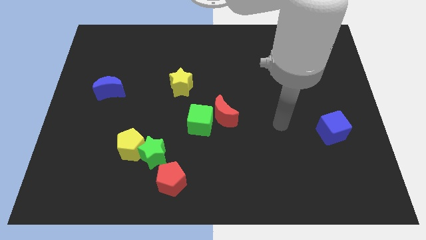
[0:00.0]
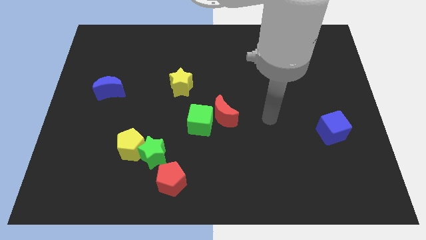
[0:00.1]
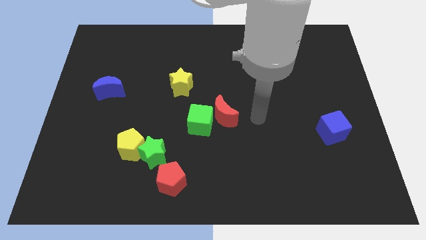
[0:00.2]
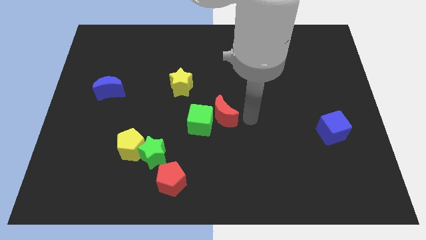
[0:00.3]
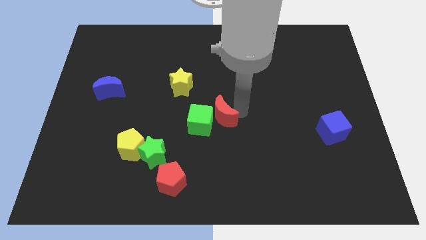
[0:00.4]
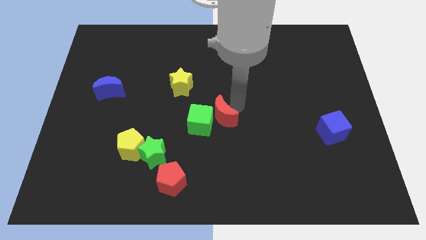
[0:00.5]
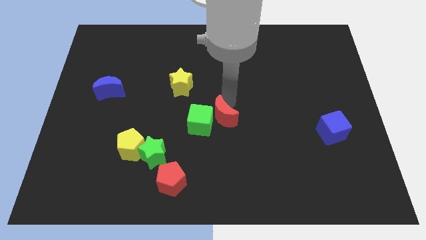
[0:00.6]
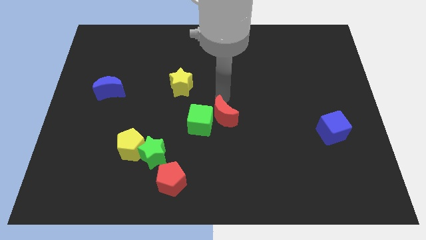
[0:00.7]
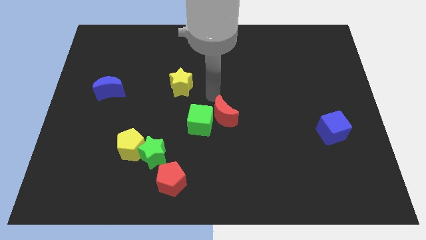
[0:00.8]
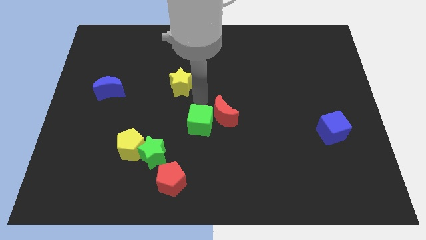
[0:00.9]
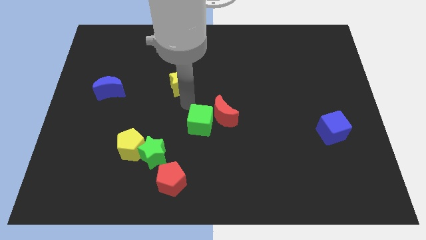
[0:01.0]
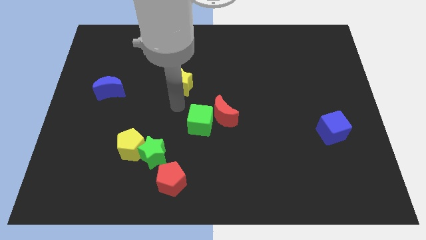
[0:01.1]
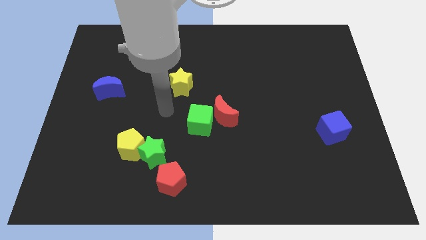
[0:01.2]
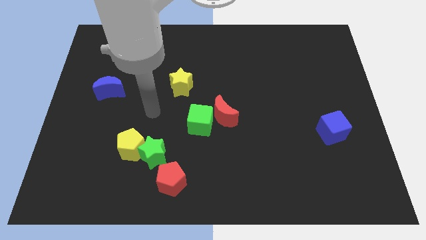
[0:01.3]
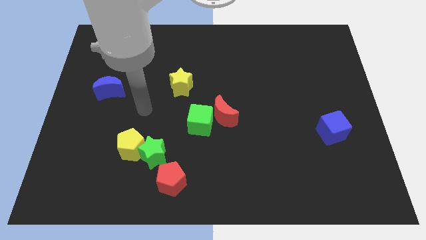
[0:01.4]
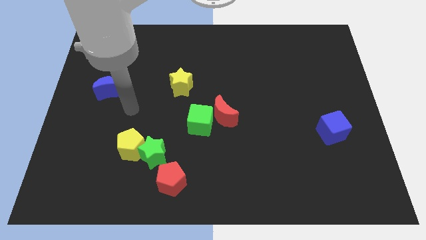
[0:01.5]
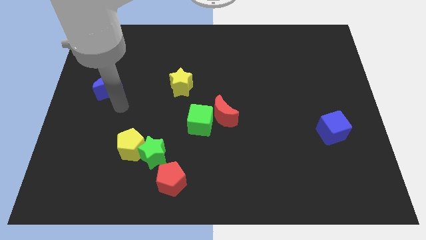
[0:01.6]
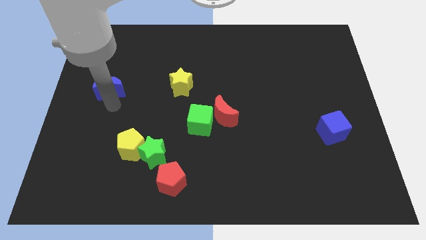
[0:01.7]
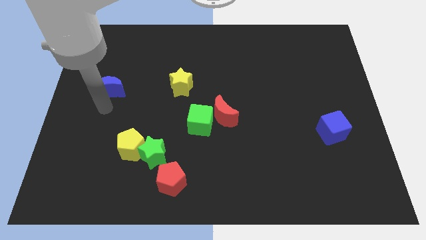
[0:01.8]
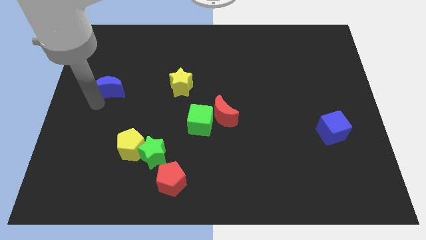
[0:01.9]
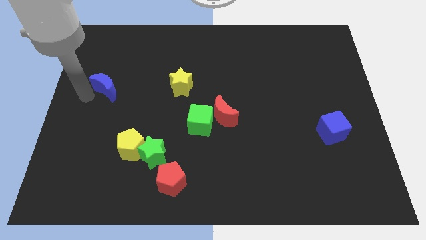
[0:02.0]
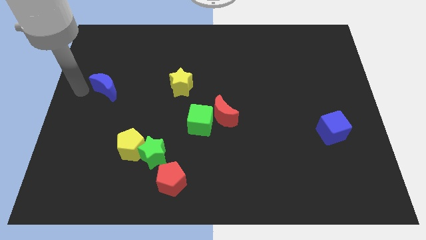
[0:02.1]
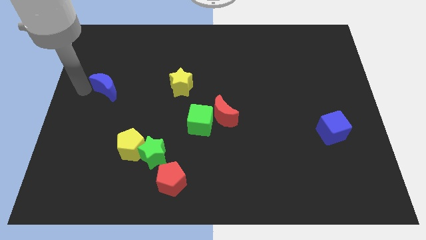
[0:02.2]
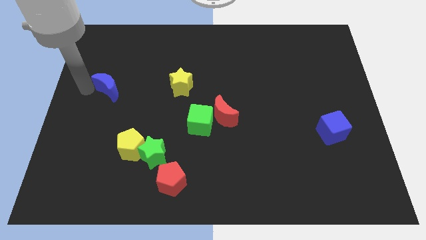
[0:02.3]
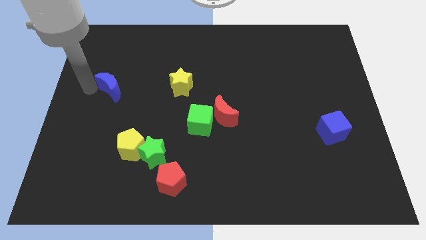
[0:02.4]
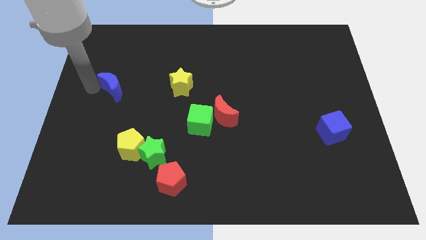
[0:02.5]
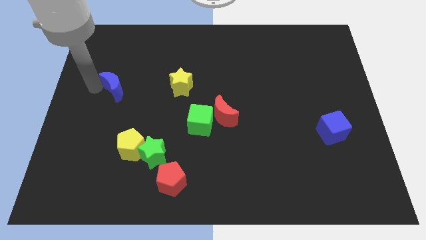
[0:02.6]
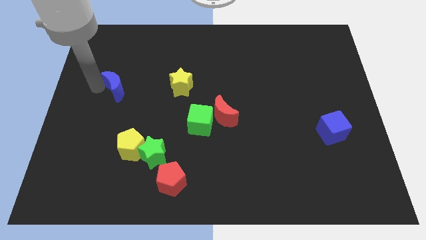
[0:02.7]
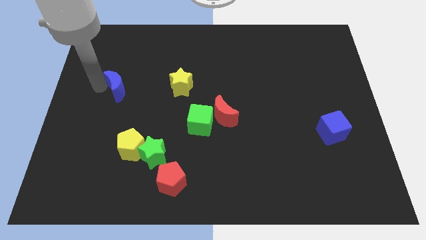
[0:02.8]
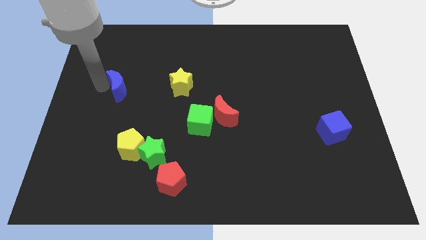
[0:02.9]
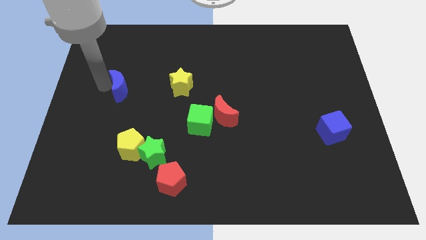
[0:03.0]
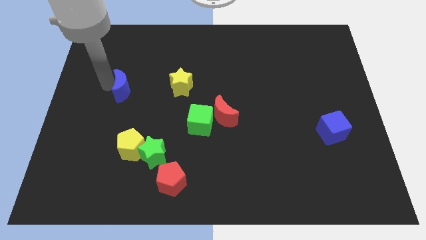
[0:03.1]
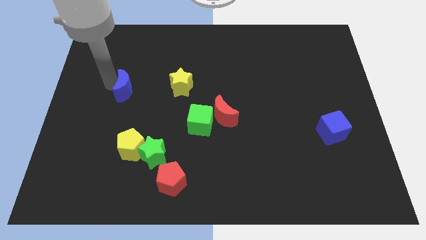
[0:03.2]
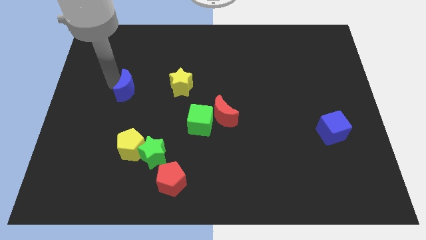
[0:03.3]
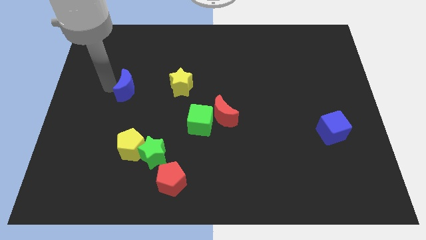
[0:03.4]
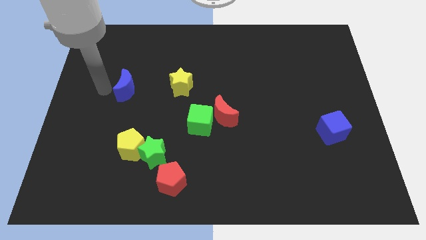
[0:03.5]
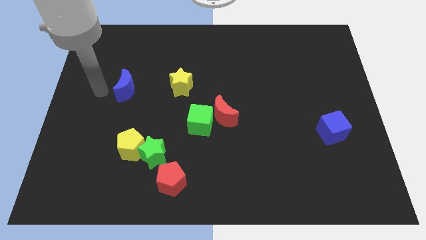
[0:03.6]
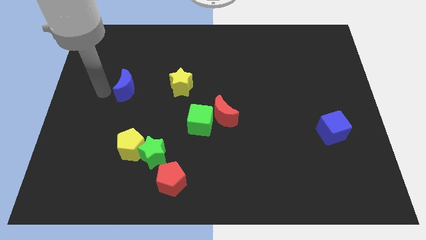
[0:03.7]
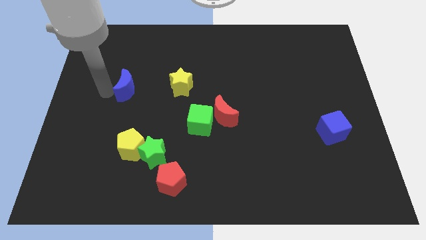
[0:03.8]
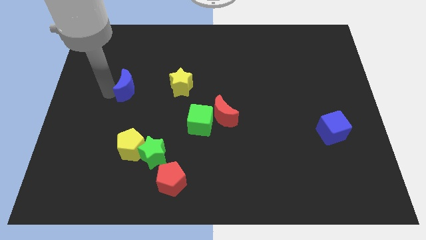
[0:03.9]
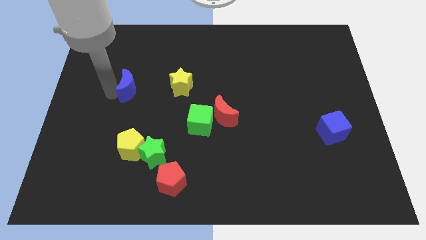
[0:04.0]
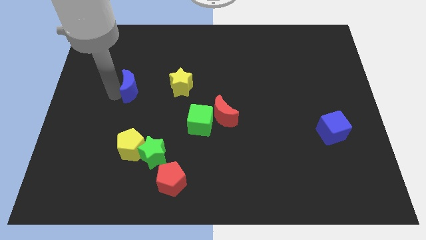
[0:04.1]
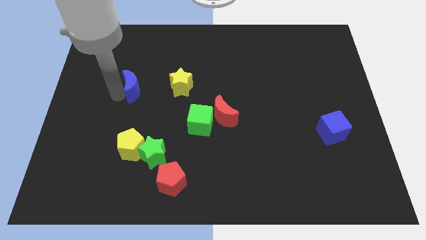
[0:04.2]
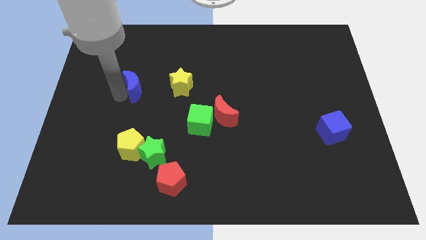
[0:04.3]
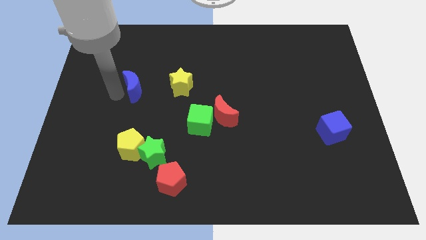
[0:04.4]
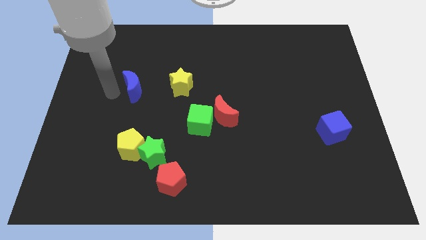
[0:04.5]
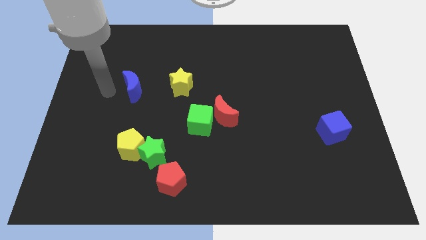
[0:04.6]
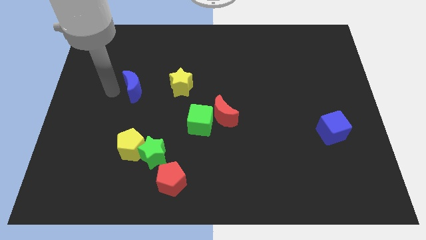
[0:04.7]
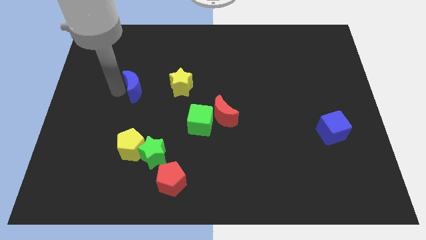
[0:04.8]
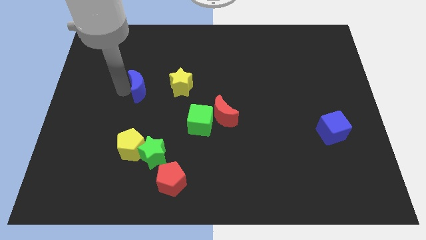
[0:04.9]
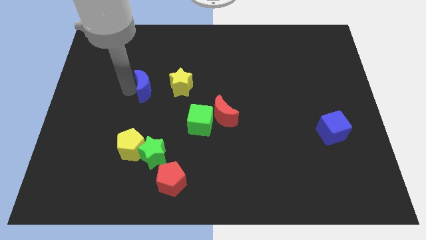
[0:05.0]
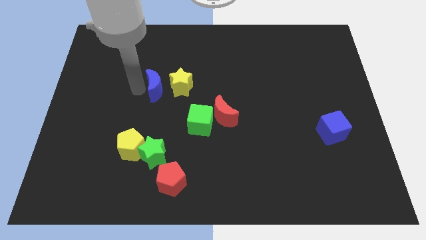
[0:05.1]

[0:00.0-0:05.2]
slide the blue moon to the yellow star

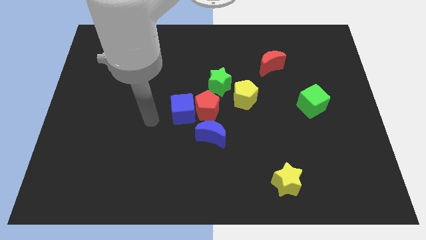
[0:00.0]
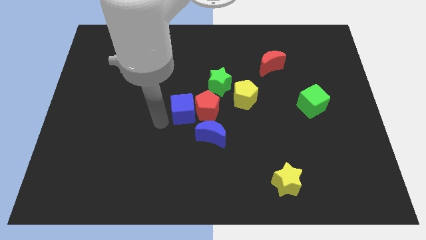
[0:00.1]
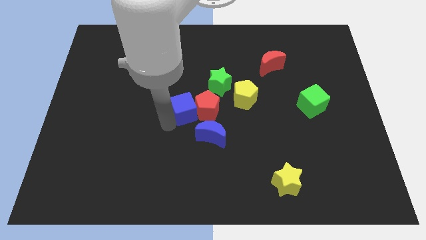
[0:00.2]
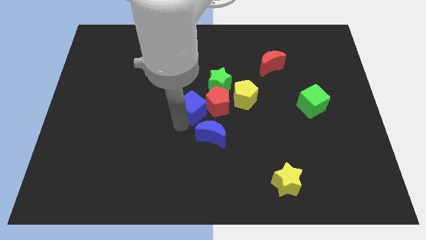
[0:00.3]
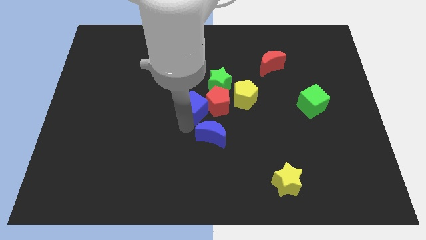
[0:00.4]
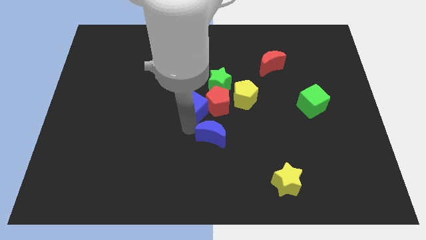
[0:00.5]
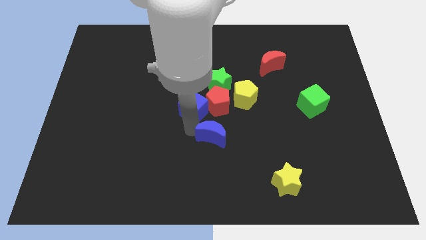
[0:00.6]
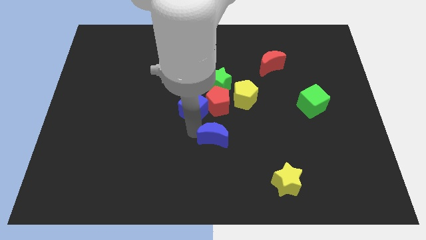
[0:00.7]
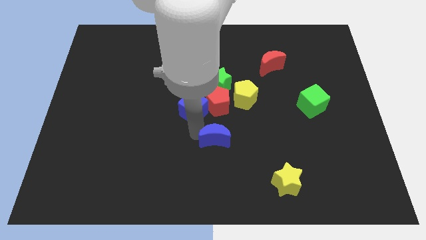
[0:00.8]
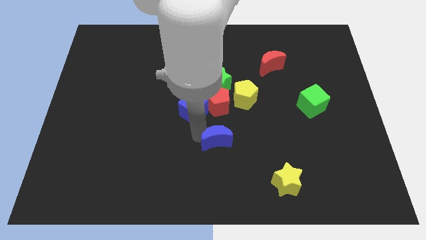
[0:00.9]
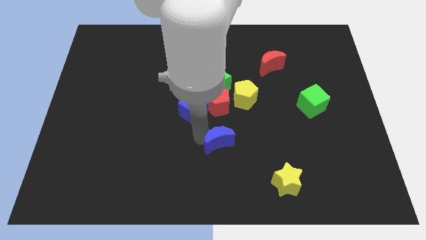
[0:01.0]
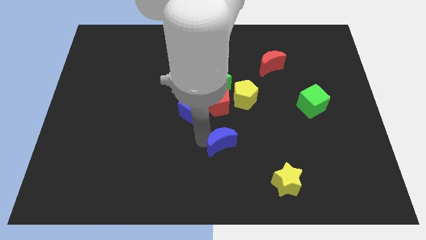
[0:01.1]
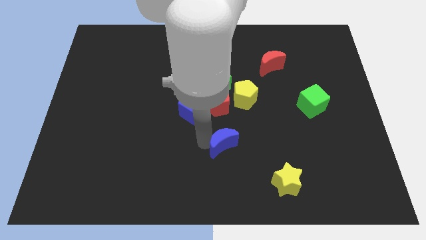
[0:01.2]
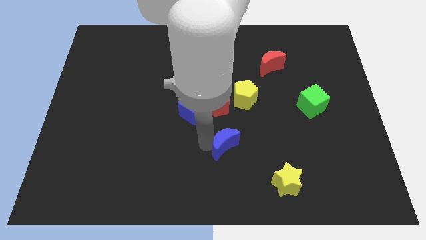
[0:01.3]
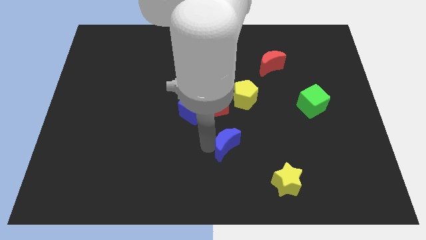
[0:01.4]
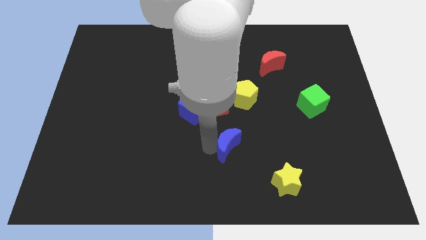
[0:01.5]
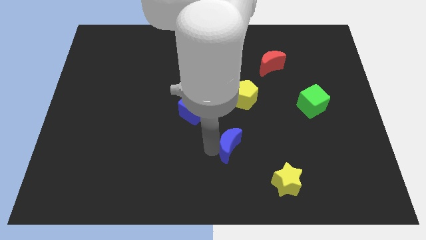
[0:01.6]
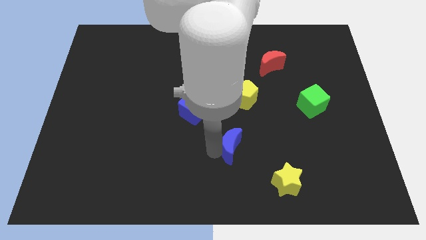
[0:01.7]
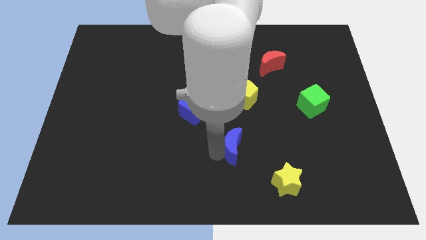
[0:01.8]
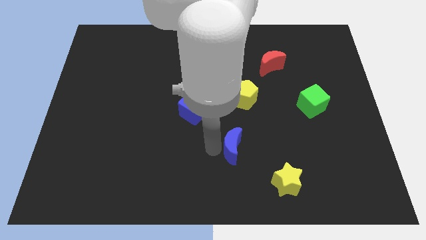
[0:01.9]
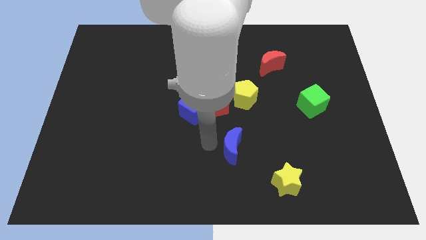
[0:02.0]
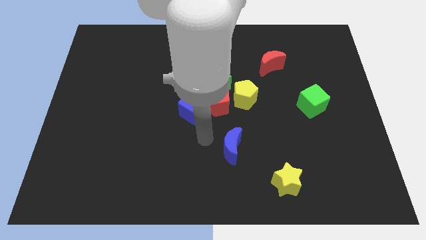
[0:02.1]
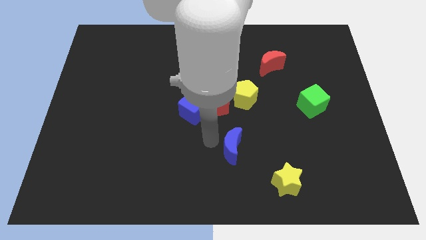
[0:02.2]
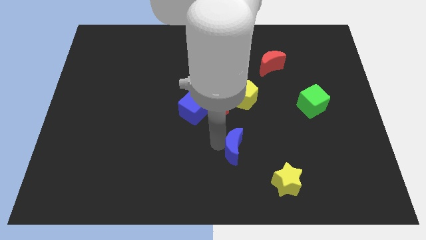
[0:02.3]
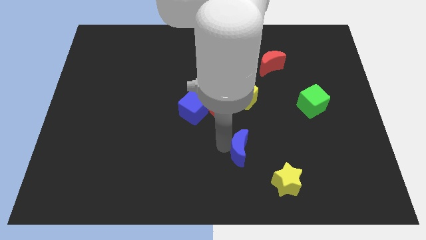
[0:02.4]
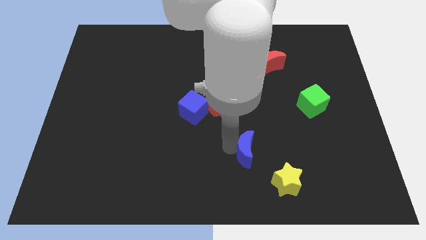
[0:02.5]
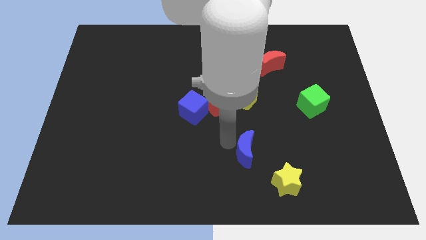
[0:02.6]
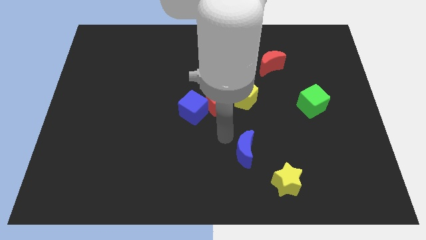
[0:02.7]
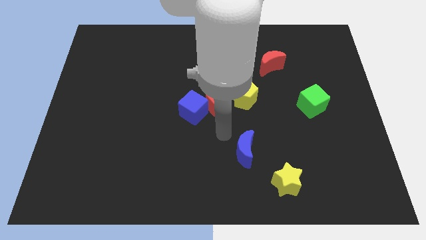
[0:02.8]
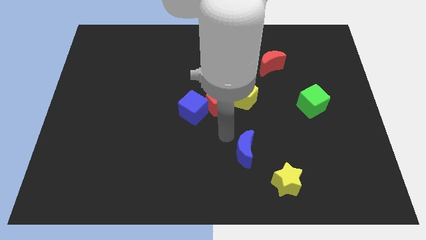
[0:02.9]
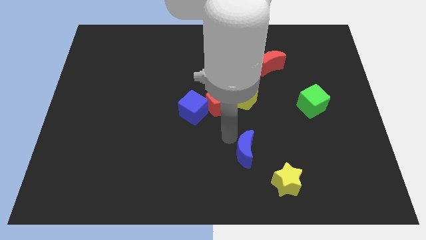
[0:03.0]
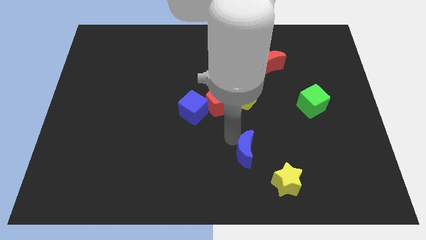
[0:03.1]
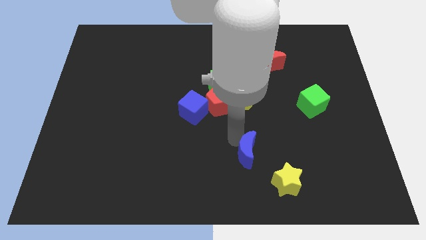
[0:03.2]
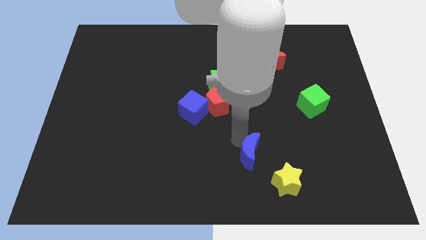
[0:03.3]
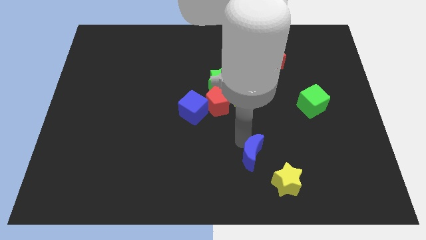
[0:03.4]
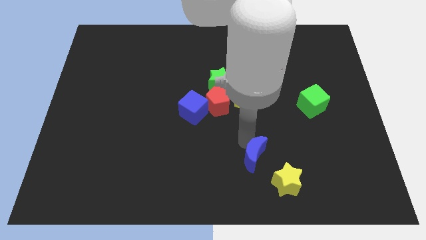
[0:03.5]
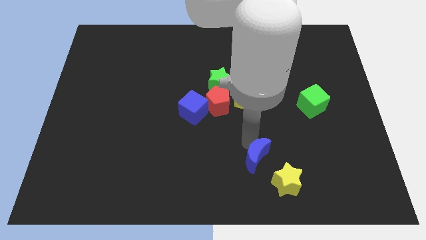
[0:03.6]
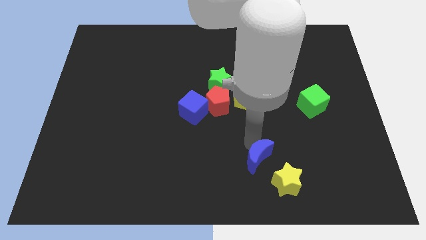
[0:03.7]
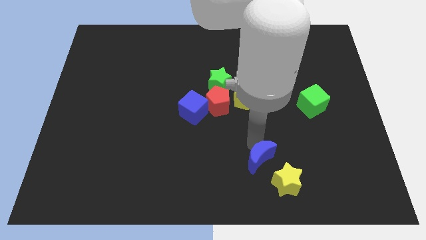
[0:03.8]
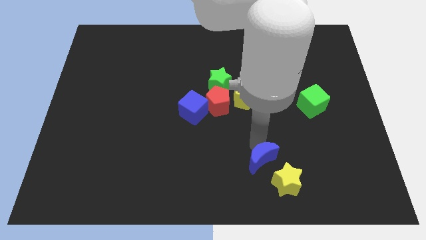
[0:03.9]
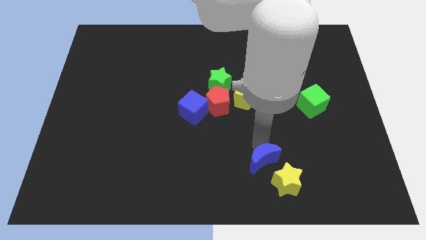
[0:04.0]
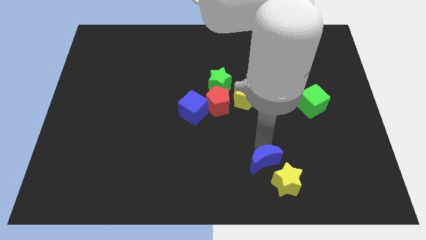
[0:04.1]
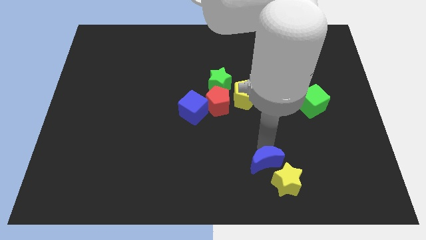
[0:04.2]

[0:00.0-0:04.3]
put the blue moon towards the yellow star
